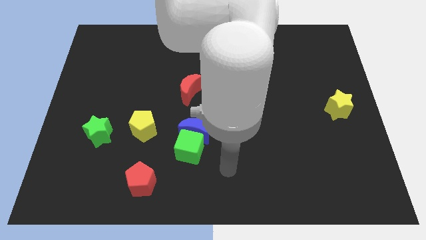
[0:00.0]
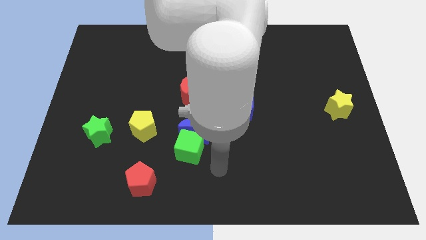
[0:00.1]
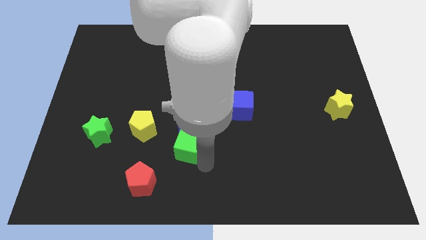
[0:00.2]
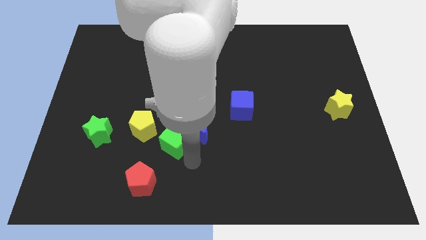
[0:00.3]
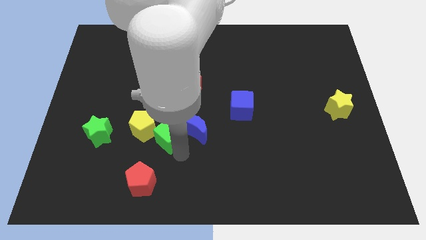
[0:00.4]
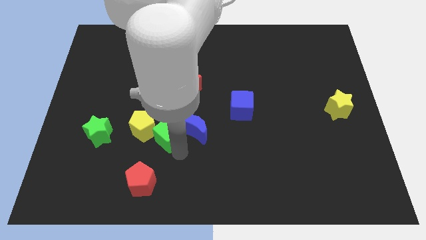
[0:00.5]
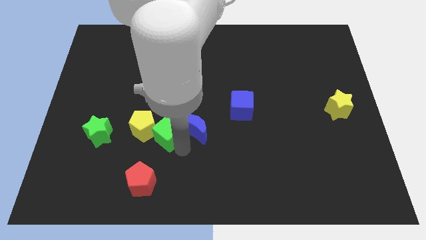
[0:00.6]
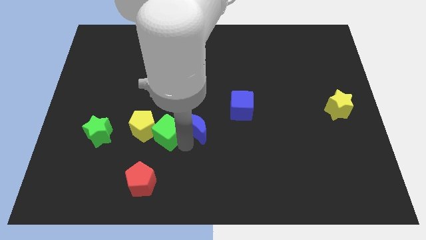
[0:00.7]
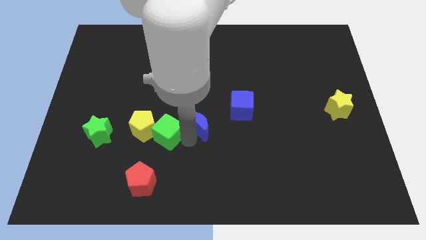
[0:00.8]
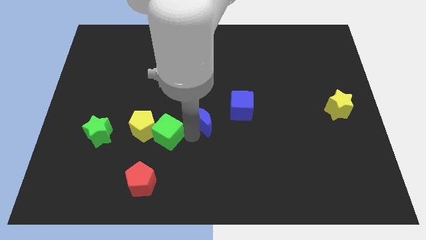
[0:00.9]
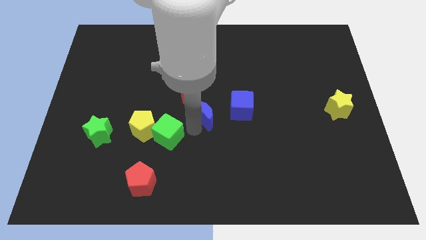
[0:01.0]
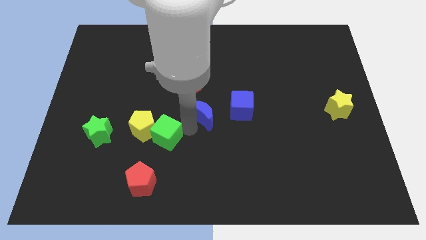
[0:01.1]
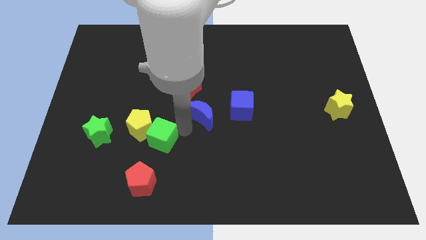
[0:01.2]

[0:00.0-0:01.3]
move the blue moon away from the green cube

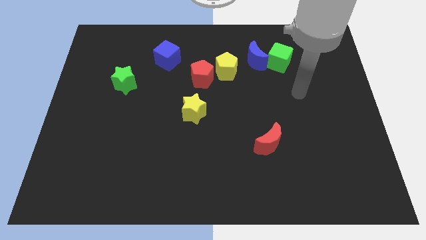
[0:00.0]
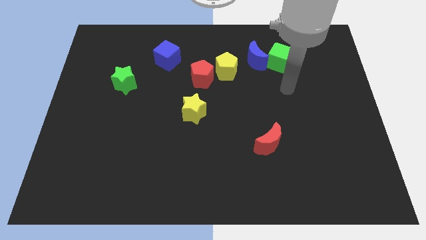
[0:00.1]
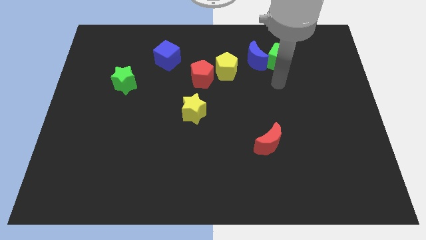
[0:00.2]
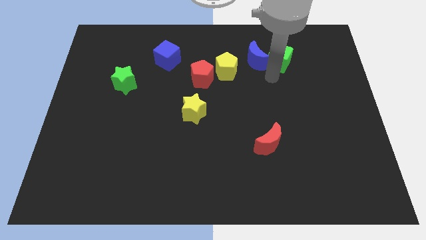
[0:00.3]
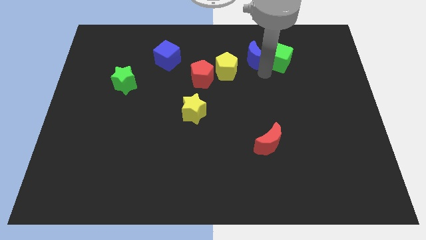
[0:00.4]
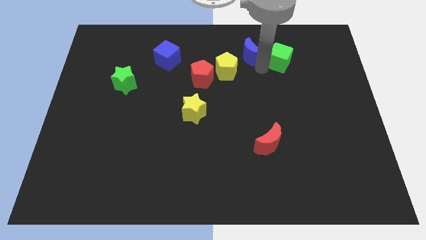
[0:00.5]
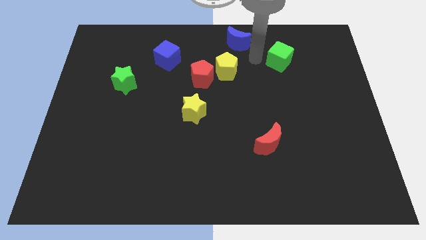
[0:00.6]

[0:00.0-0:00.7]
separate the green cube from the blue moon

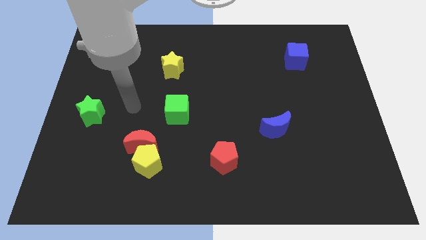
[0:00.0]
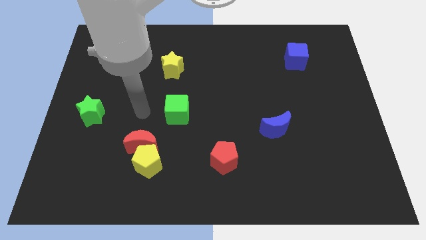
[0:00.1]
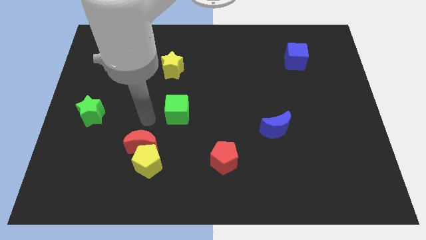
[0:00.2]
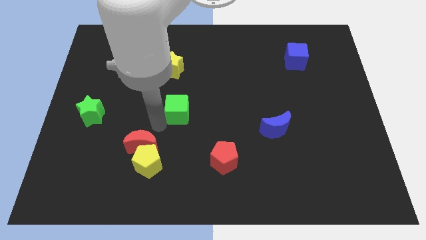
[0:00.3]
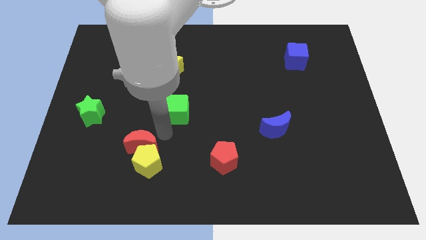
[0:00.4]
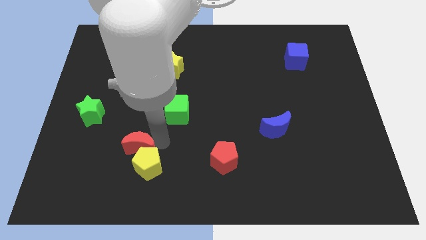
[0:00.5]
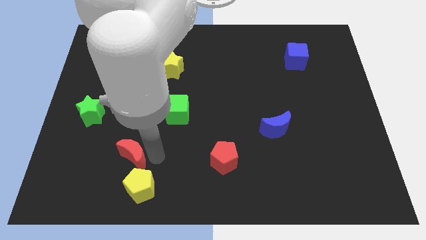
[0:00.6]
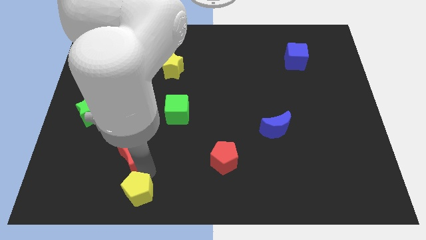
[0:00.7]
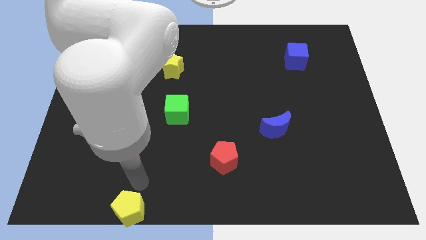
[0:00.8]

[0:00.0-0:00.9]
pull the red moon apart from the yellow pentagon

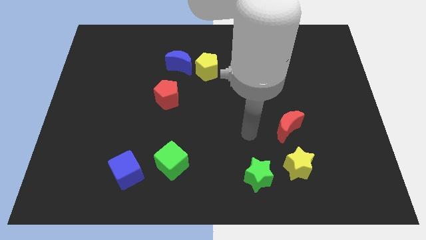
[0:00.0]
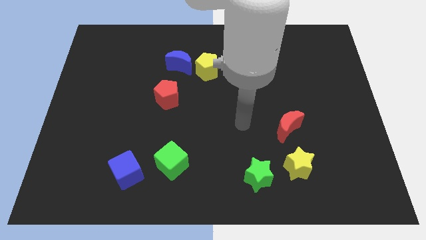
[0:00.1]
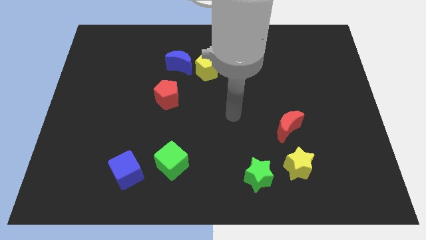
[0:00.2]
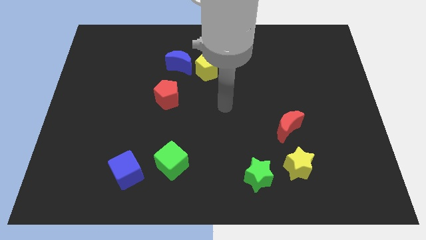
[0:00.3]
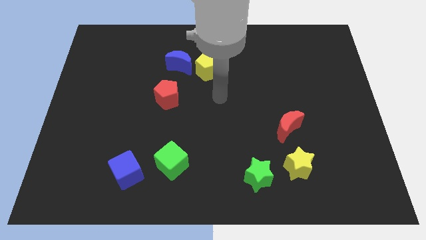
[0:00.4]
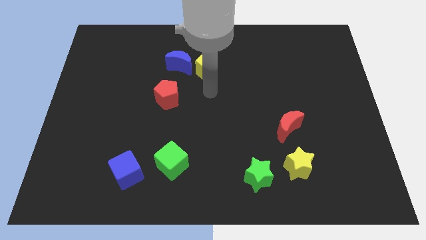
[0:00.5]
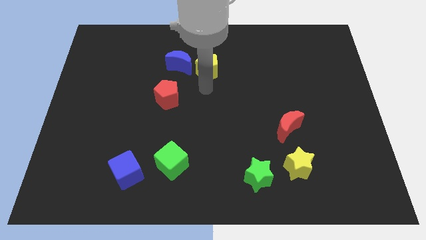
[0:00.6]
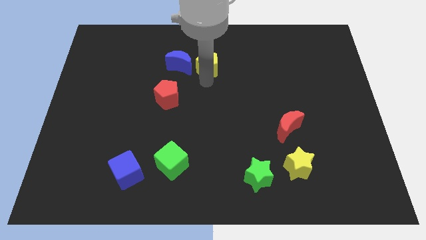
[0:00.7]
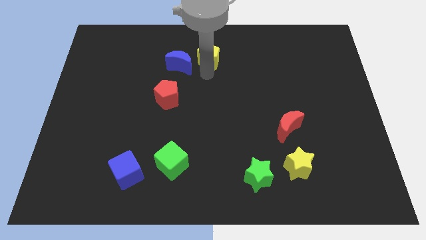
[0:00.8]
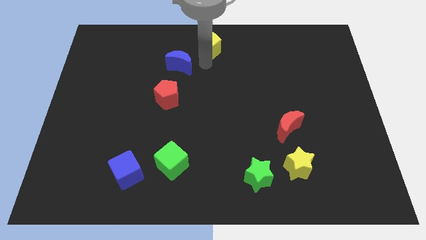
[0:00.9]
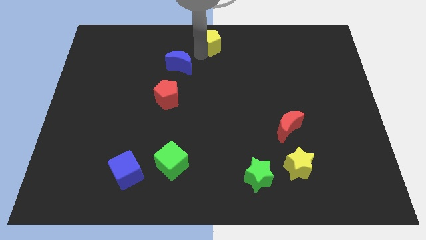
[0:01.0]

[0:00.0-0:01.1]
move the blue moon away from the yellow pentagon

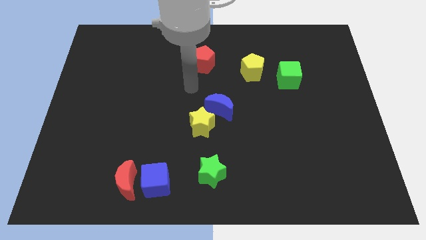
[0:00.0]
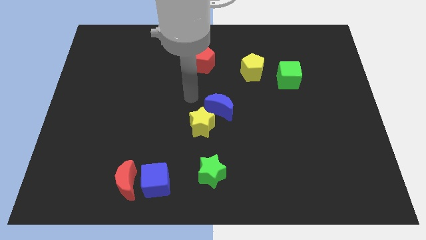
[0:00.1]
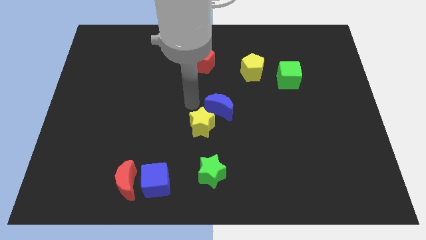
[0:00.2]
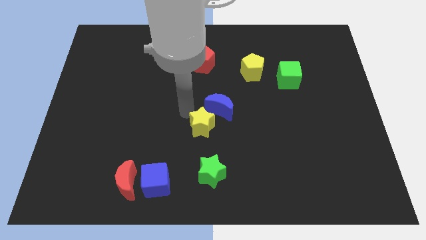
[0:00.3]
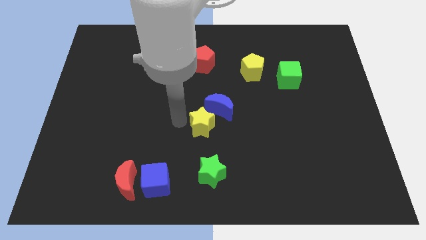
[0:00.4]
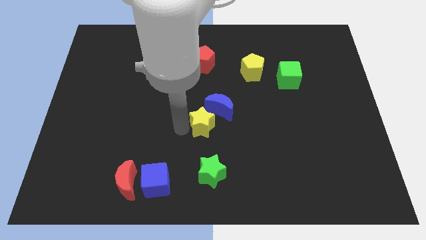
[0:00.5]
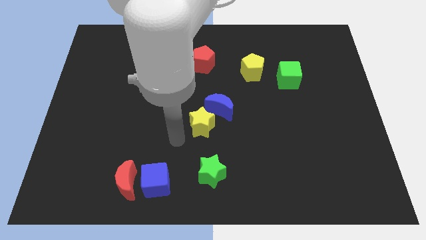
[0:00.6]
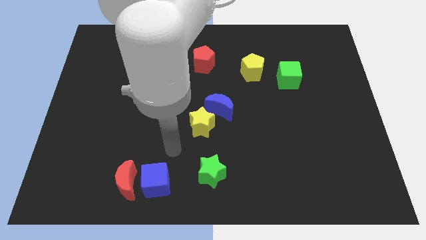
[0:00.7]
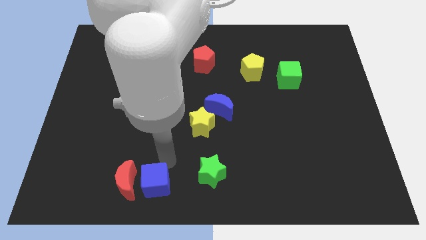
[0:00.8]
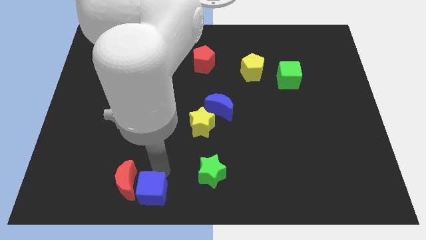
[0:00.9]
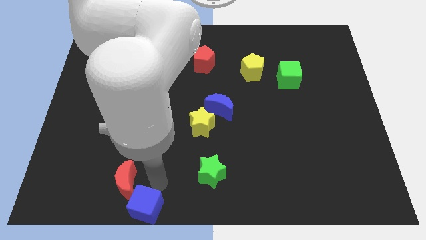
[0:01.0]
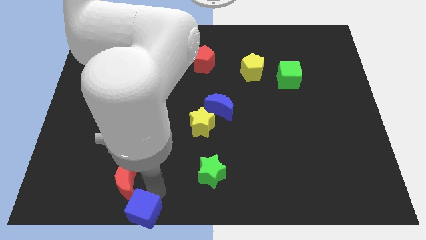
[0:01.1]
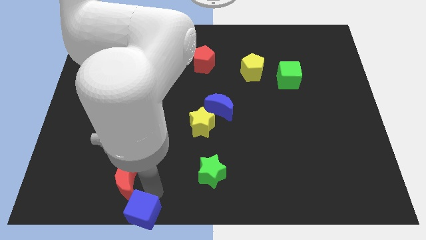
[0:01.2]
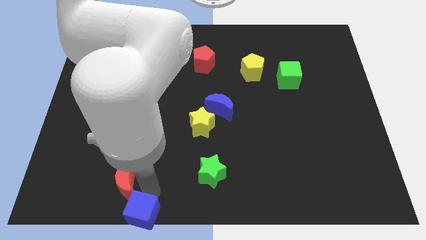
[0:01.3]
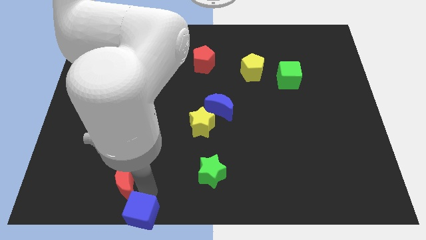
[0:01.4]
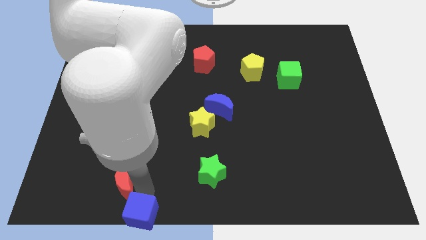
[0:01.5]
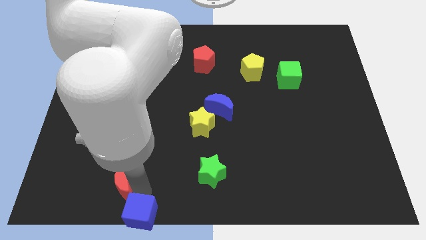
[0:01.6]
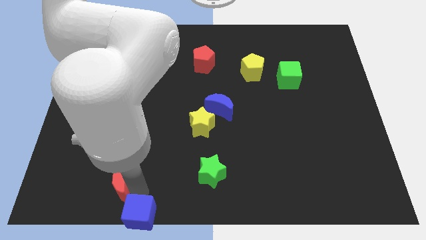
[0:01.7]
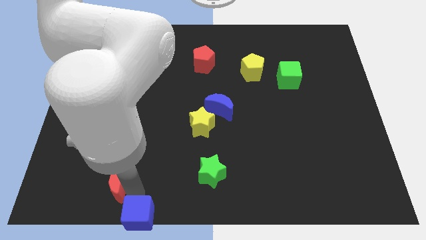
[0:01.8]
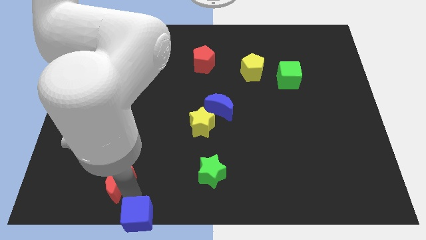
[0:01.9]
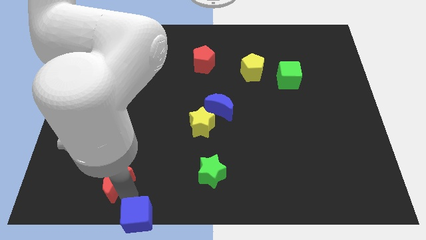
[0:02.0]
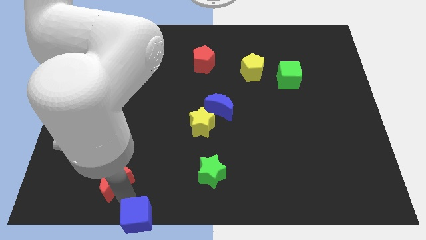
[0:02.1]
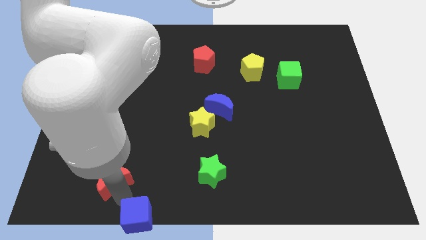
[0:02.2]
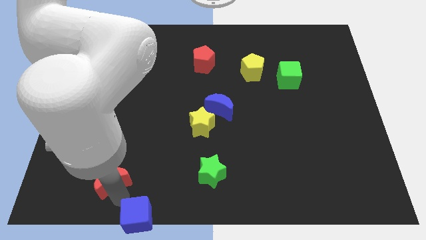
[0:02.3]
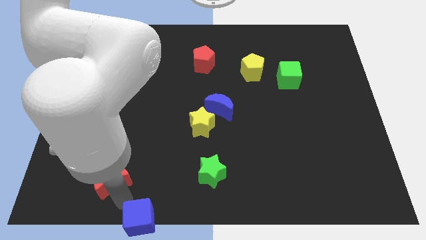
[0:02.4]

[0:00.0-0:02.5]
move the red moon away from the blue cube

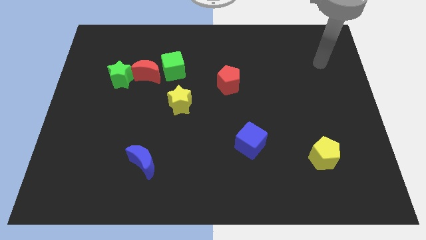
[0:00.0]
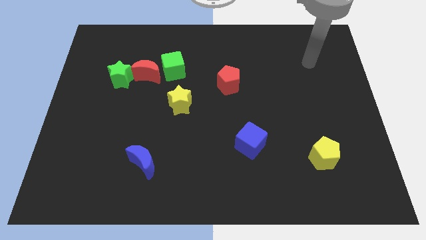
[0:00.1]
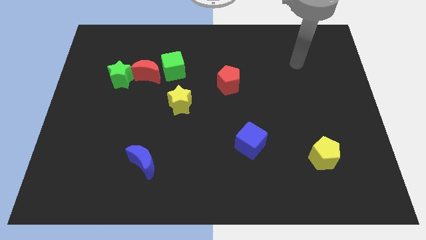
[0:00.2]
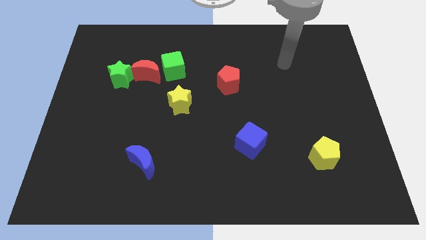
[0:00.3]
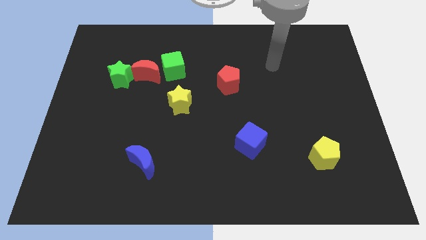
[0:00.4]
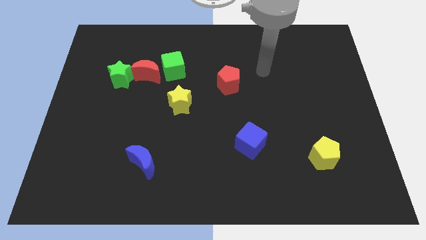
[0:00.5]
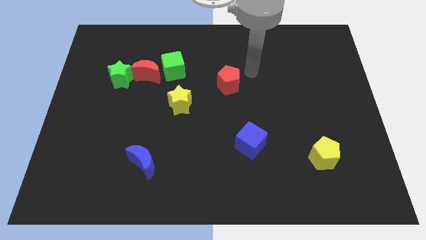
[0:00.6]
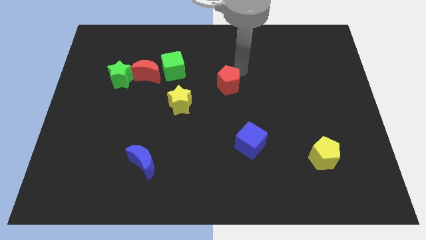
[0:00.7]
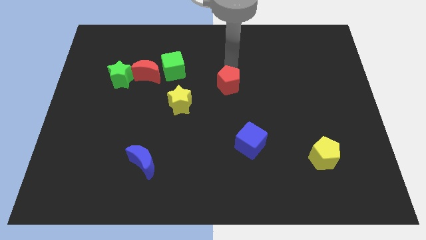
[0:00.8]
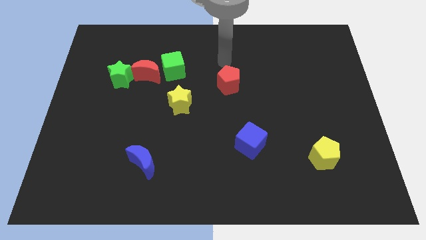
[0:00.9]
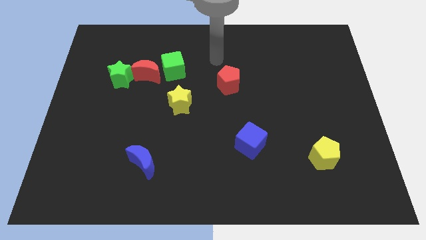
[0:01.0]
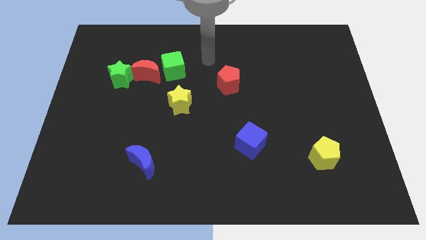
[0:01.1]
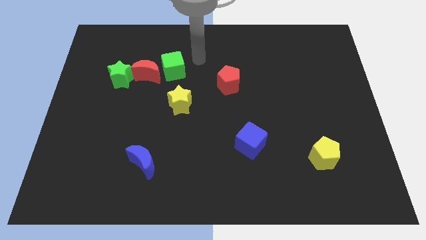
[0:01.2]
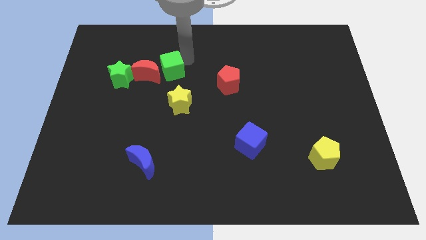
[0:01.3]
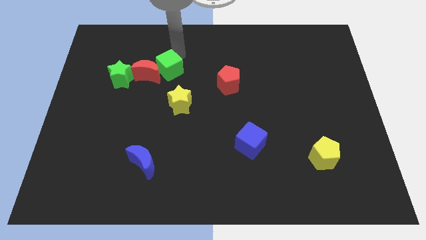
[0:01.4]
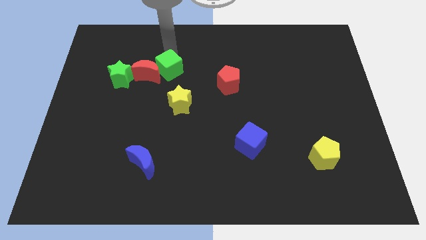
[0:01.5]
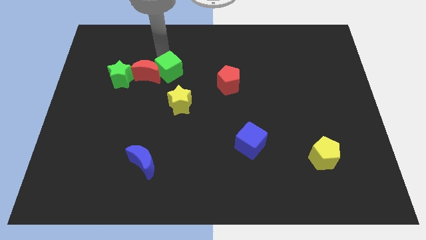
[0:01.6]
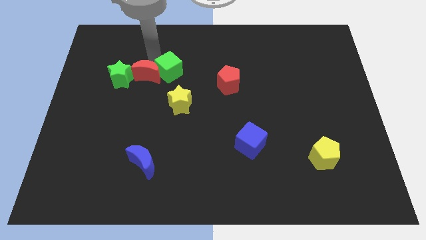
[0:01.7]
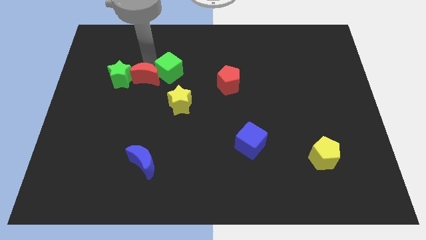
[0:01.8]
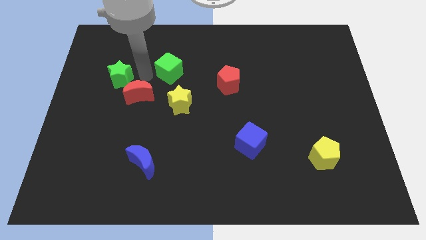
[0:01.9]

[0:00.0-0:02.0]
separate the green cube from the red moon

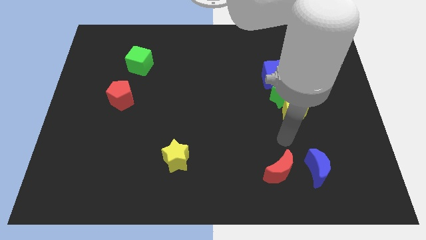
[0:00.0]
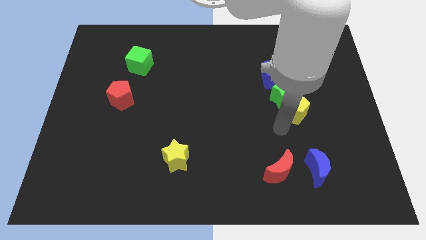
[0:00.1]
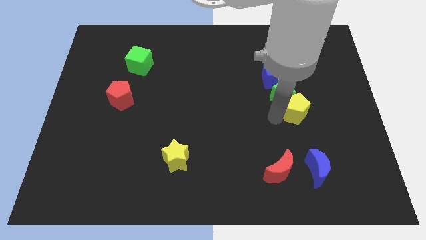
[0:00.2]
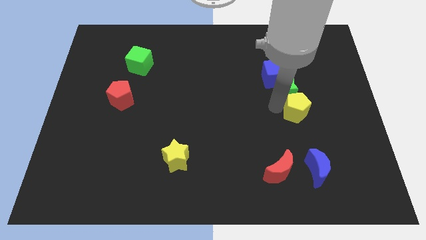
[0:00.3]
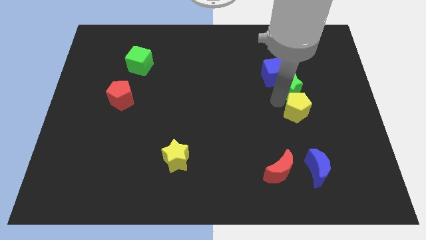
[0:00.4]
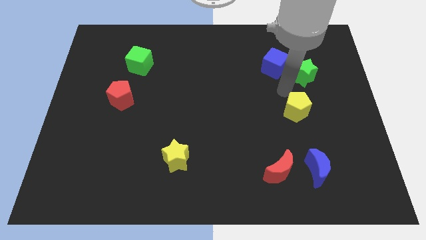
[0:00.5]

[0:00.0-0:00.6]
separate the yellow pentagon from the green star

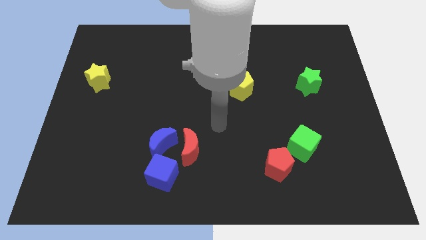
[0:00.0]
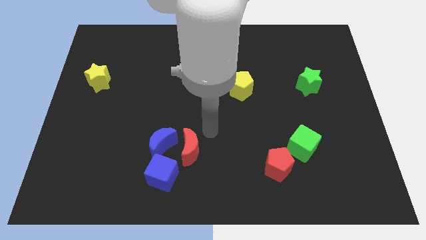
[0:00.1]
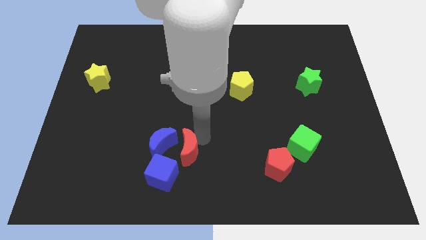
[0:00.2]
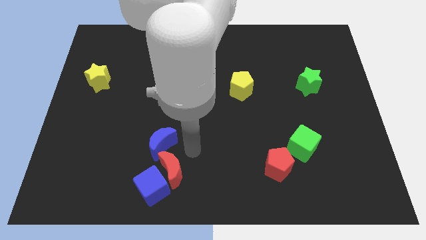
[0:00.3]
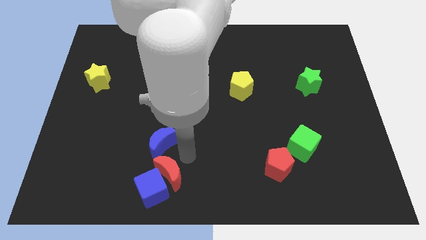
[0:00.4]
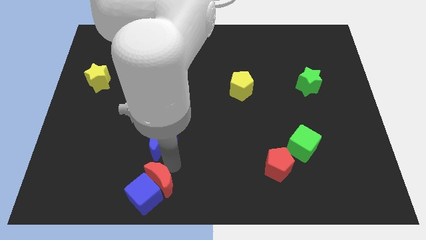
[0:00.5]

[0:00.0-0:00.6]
pull the blue moon apart from the red moon and blue cube
